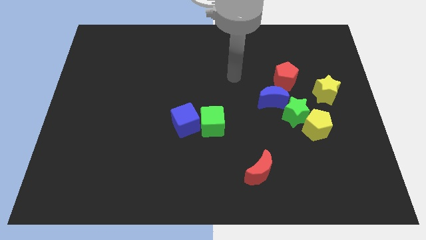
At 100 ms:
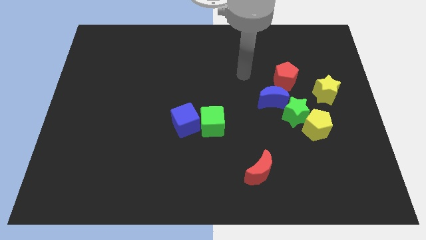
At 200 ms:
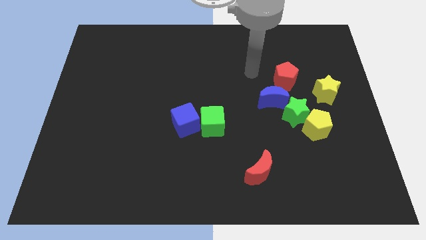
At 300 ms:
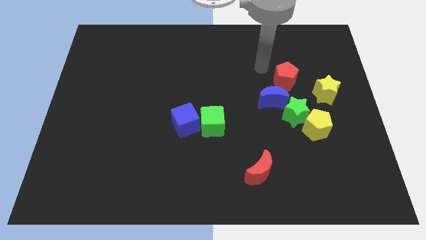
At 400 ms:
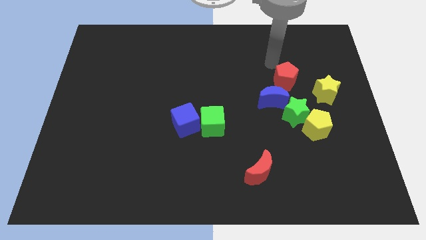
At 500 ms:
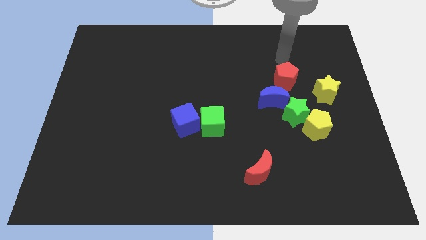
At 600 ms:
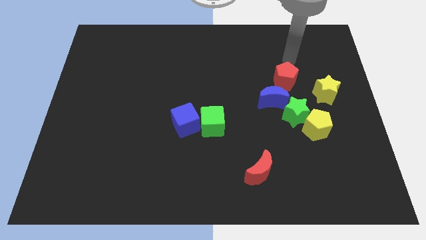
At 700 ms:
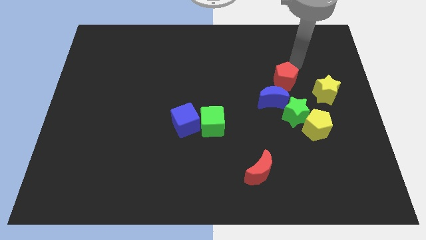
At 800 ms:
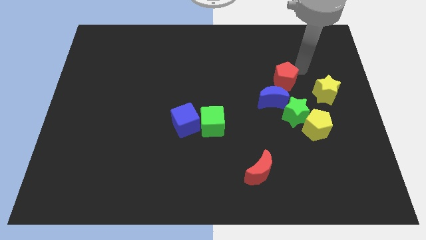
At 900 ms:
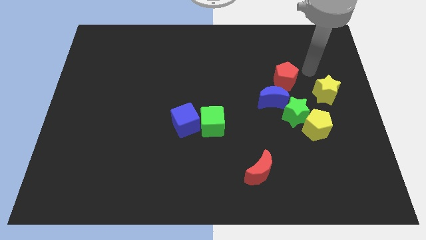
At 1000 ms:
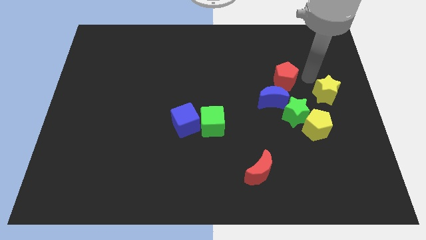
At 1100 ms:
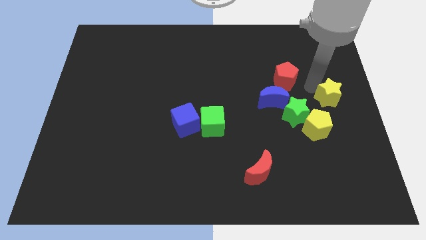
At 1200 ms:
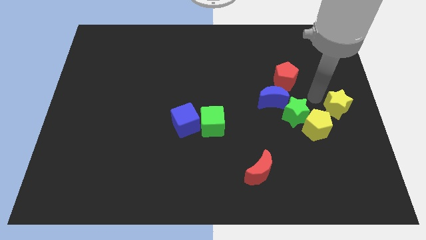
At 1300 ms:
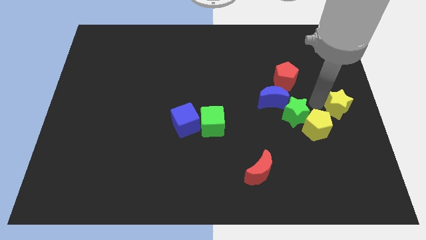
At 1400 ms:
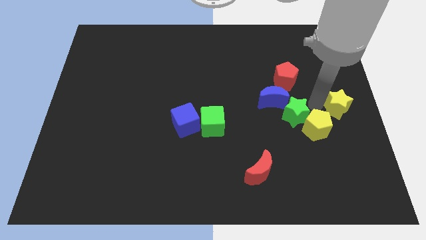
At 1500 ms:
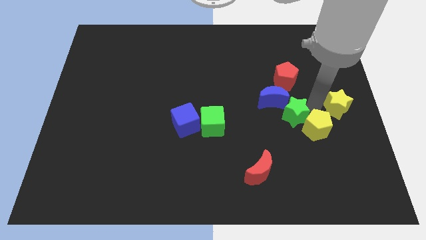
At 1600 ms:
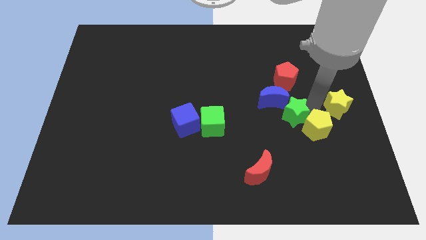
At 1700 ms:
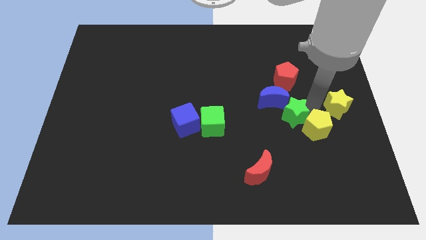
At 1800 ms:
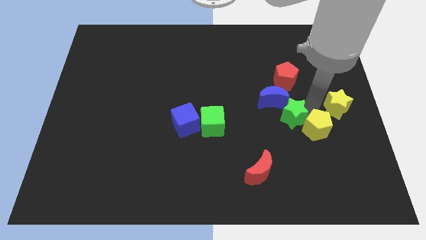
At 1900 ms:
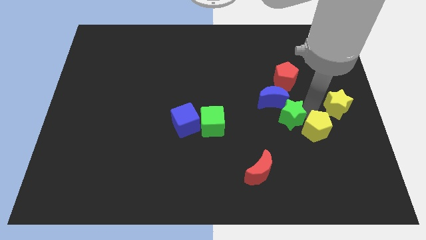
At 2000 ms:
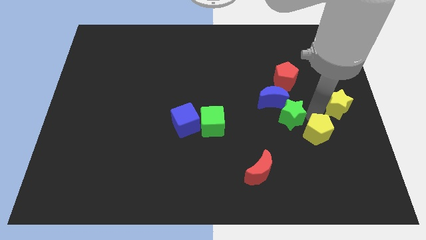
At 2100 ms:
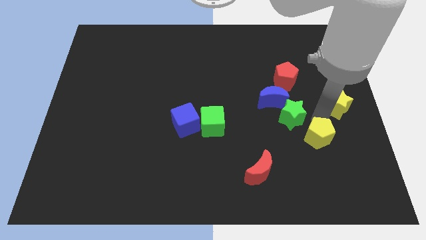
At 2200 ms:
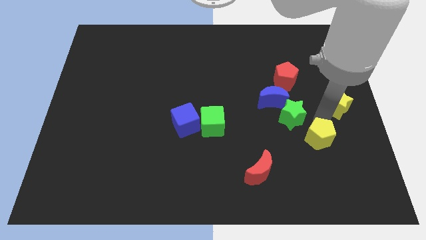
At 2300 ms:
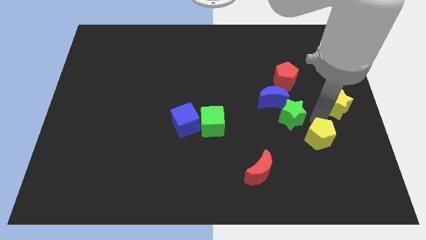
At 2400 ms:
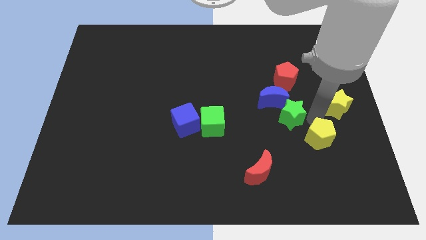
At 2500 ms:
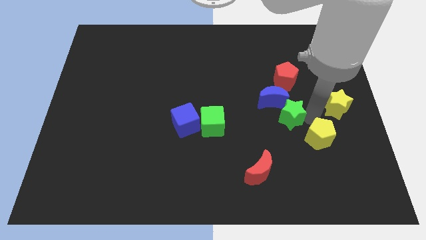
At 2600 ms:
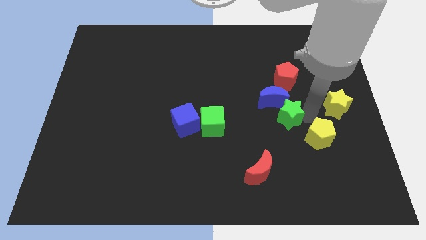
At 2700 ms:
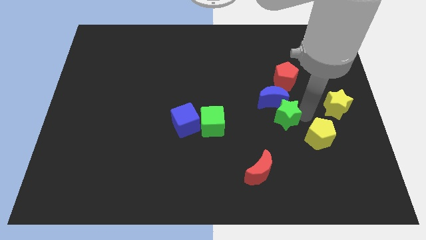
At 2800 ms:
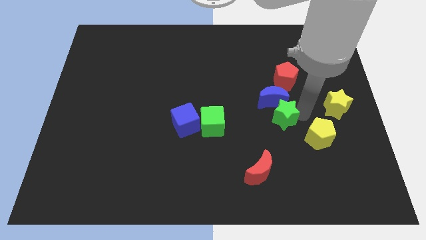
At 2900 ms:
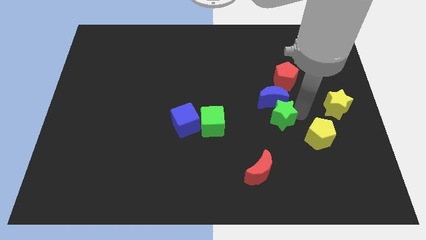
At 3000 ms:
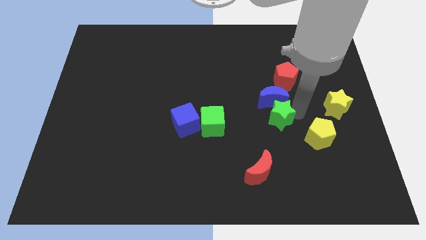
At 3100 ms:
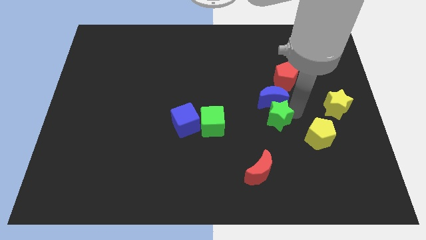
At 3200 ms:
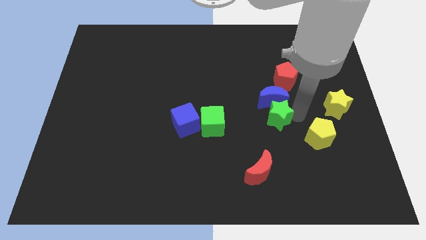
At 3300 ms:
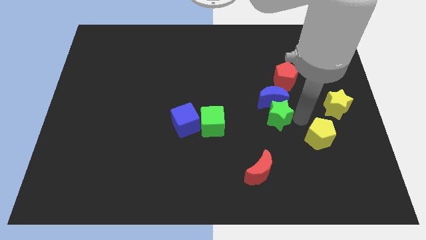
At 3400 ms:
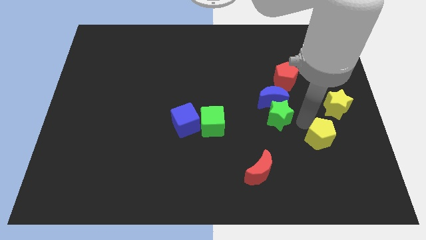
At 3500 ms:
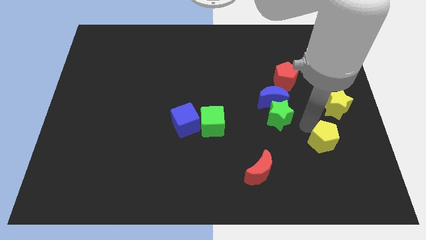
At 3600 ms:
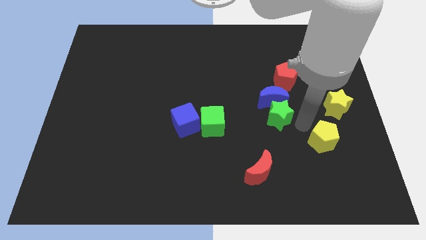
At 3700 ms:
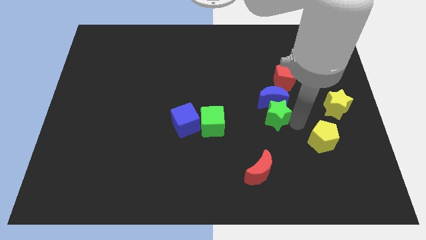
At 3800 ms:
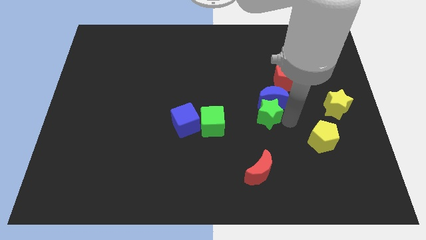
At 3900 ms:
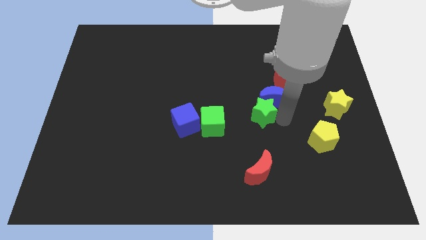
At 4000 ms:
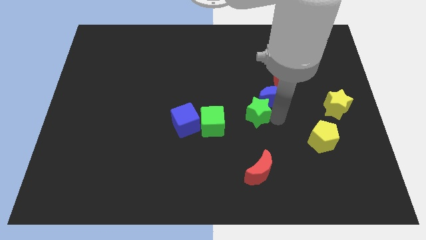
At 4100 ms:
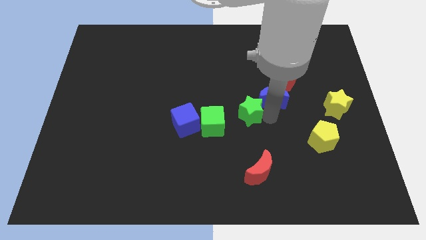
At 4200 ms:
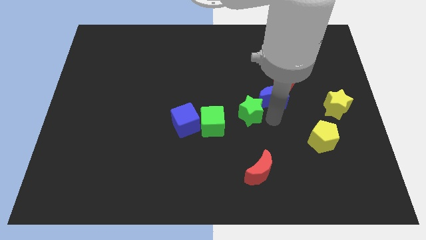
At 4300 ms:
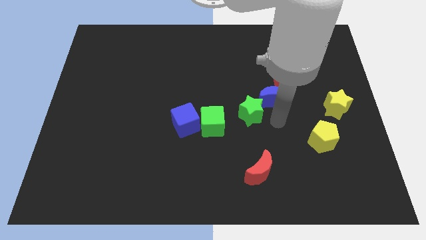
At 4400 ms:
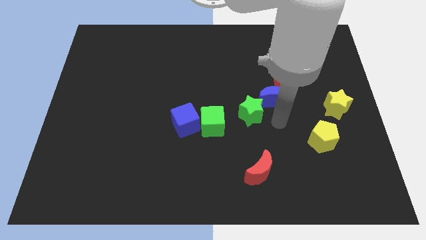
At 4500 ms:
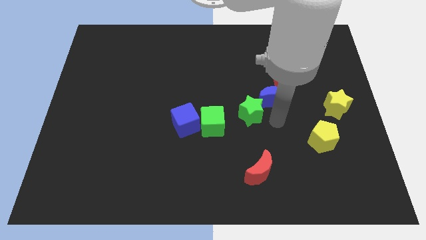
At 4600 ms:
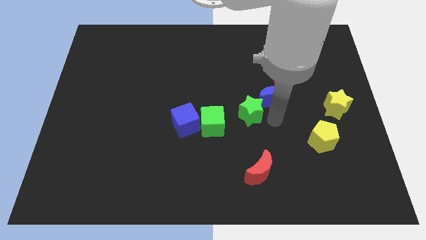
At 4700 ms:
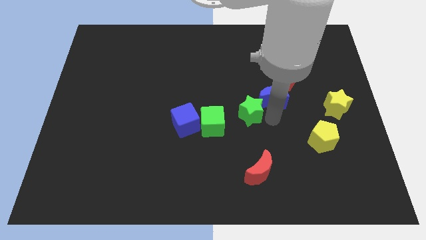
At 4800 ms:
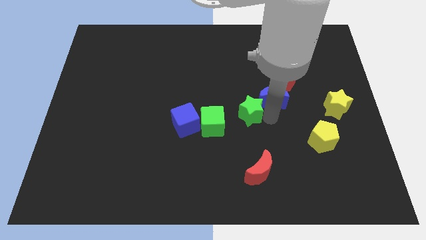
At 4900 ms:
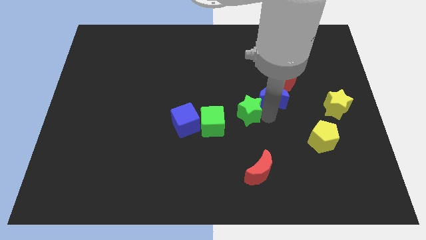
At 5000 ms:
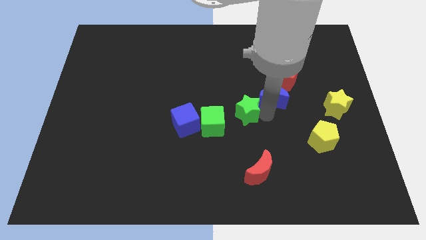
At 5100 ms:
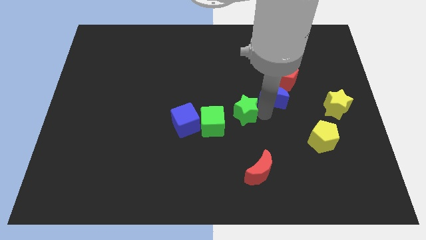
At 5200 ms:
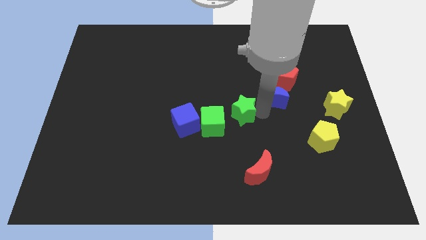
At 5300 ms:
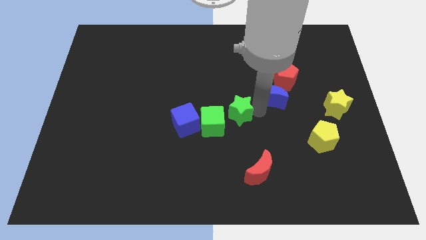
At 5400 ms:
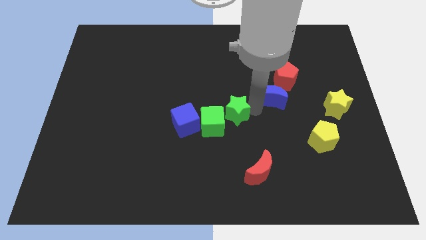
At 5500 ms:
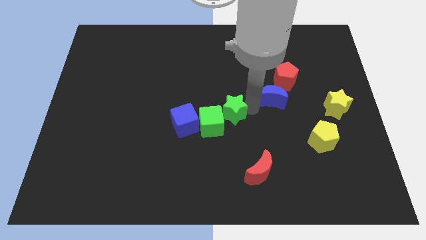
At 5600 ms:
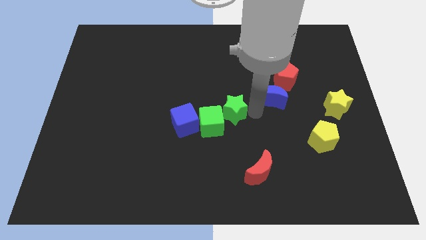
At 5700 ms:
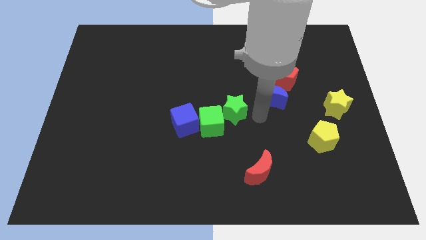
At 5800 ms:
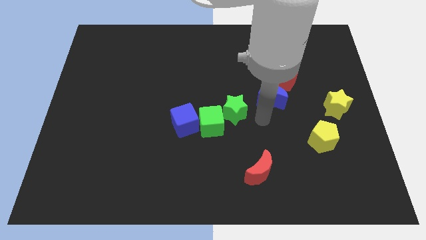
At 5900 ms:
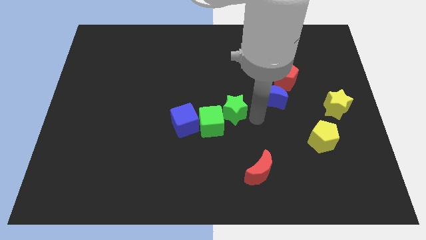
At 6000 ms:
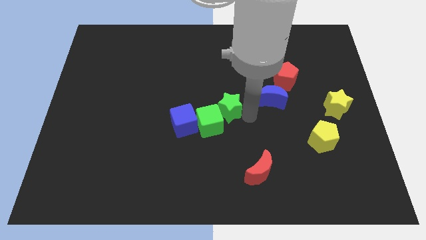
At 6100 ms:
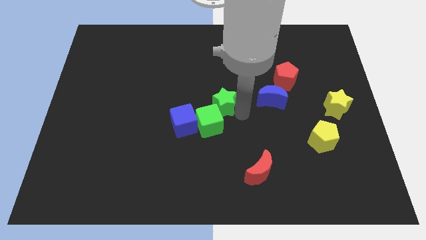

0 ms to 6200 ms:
move the green star diagonally up and to the right of the blue cube
